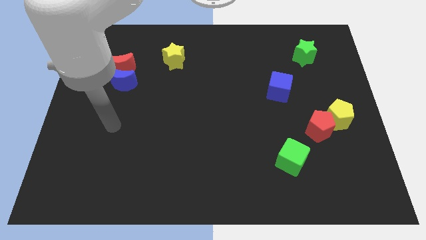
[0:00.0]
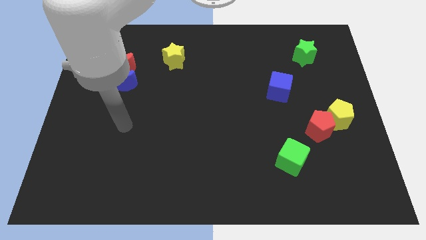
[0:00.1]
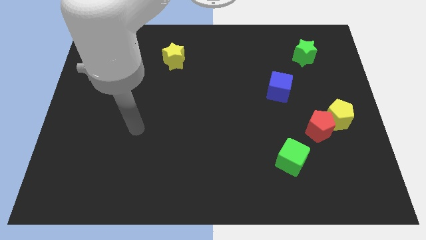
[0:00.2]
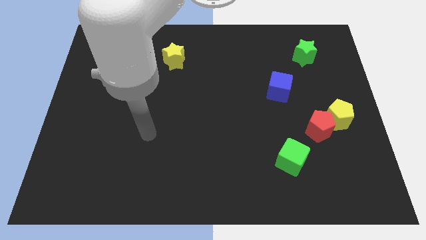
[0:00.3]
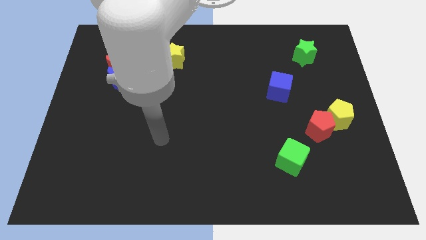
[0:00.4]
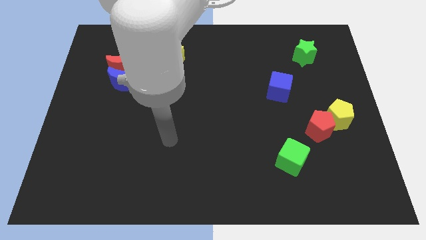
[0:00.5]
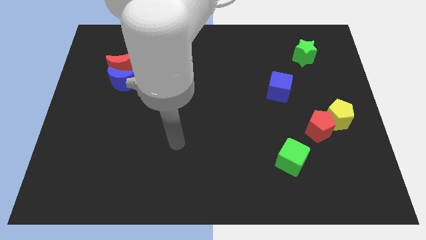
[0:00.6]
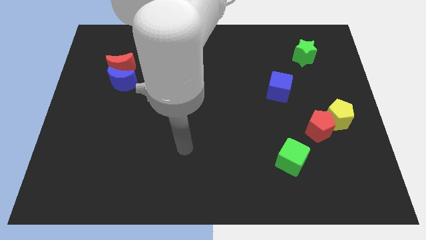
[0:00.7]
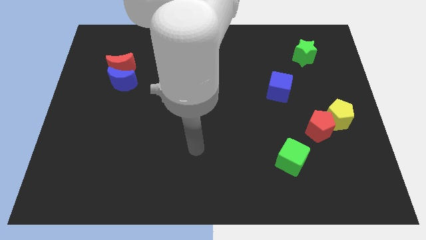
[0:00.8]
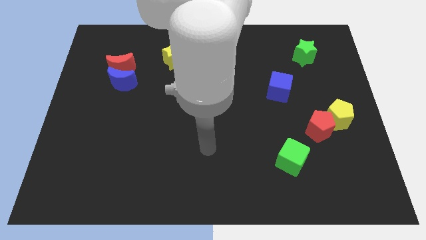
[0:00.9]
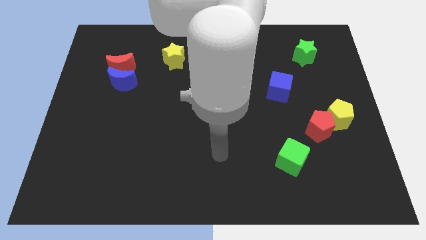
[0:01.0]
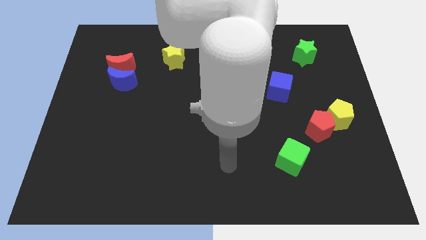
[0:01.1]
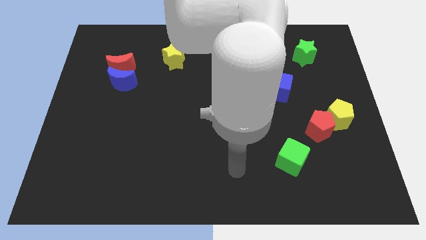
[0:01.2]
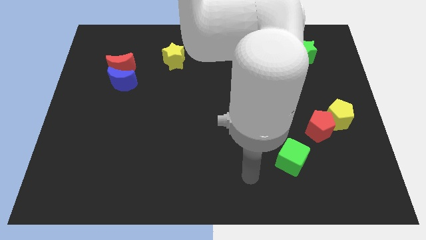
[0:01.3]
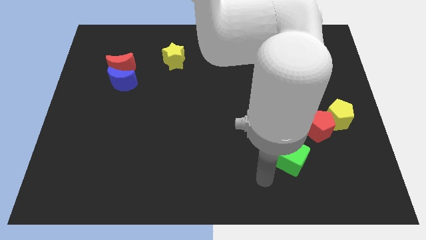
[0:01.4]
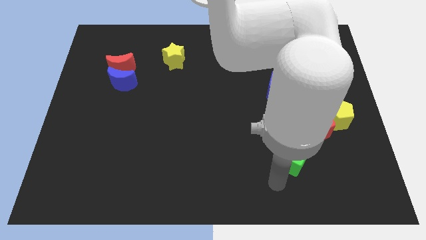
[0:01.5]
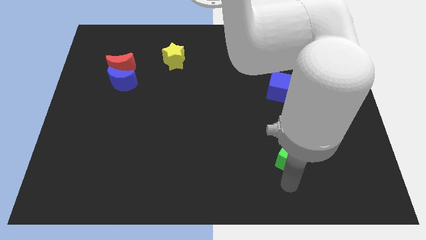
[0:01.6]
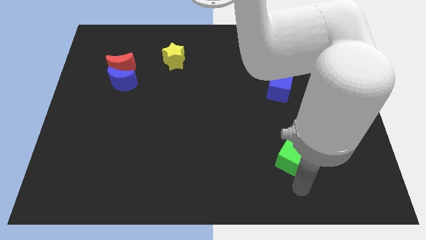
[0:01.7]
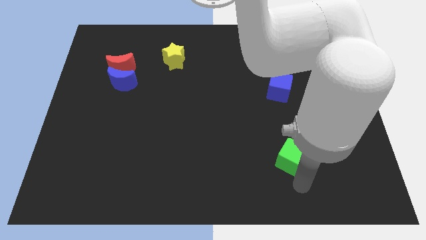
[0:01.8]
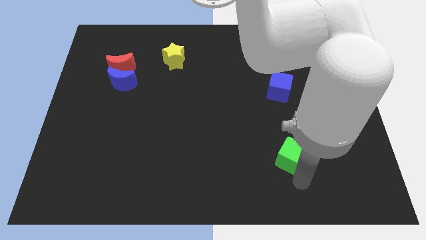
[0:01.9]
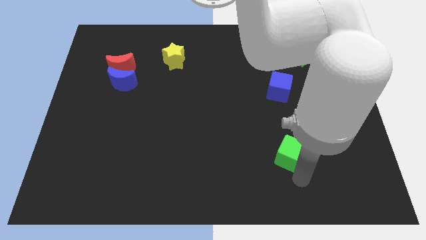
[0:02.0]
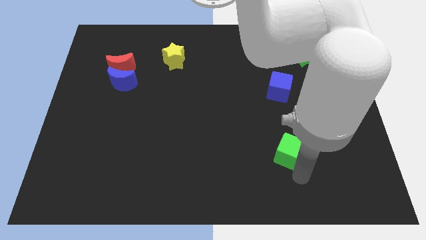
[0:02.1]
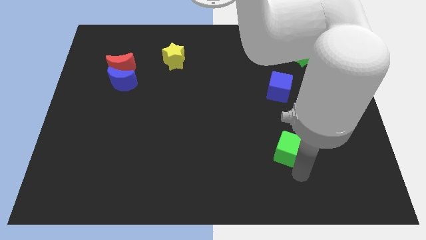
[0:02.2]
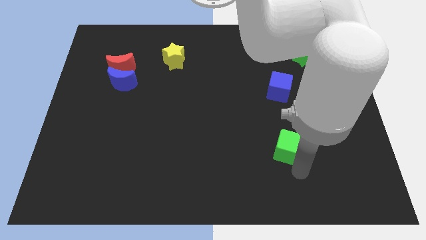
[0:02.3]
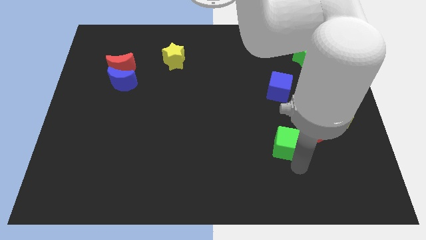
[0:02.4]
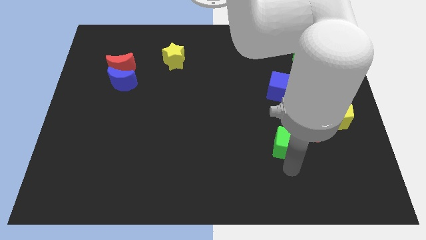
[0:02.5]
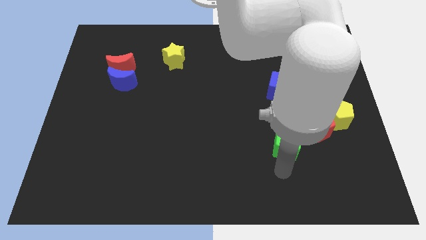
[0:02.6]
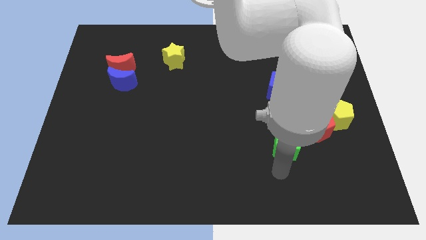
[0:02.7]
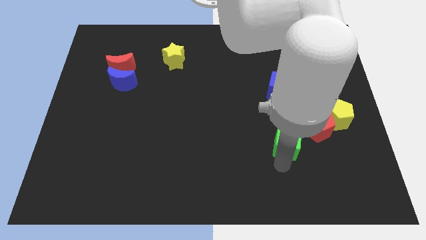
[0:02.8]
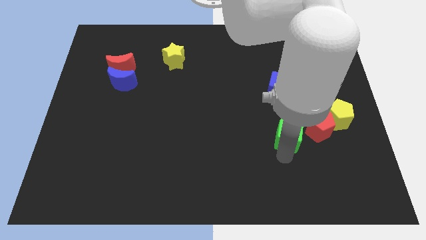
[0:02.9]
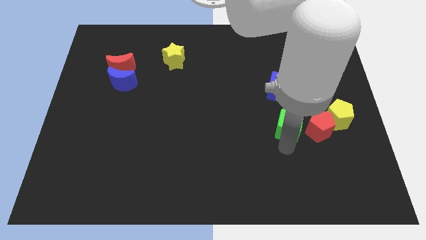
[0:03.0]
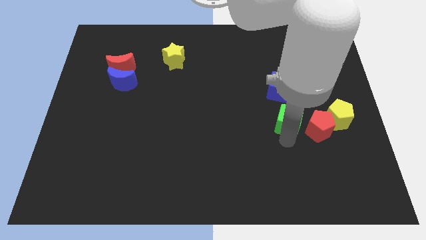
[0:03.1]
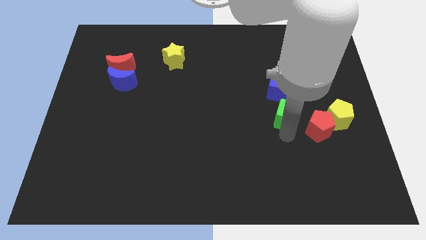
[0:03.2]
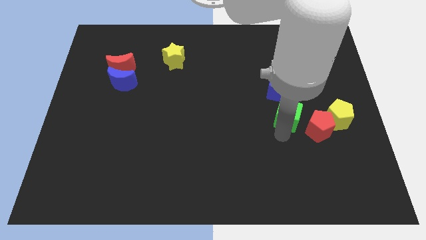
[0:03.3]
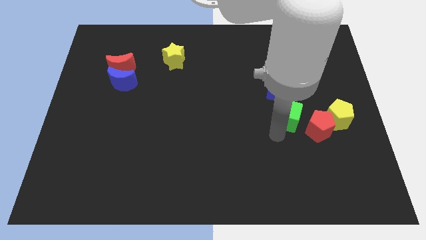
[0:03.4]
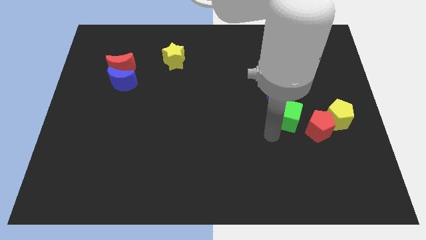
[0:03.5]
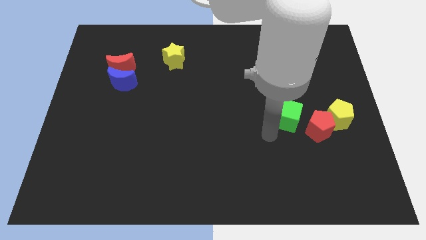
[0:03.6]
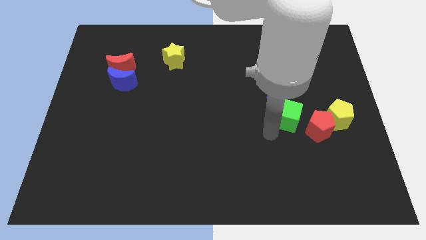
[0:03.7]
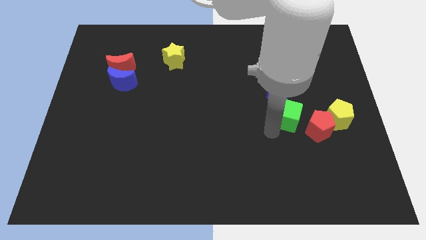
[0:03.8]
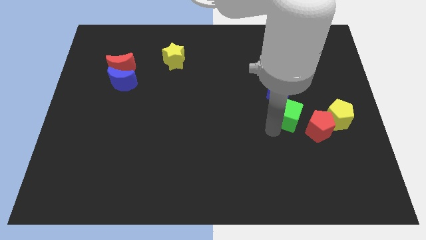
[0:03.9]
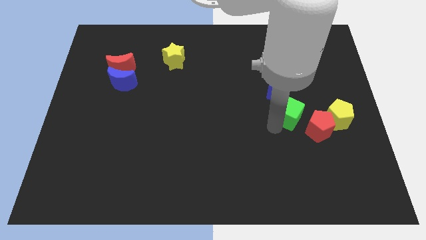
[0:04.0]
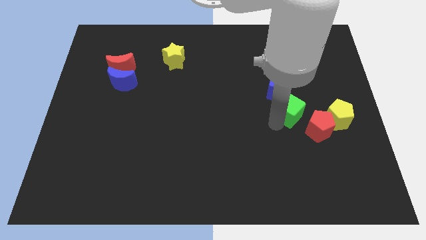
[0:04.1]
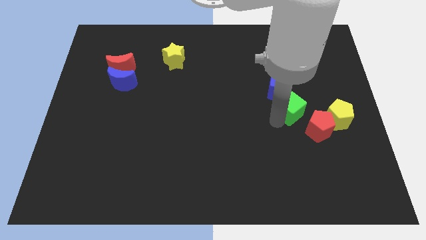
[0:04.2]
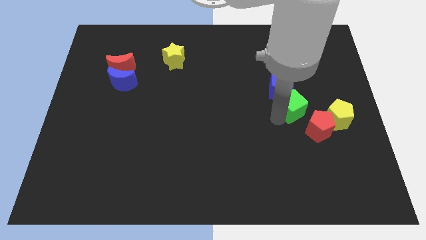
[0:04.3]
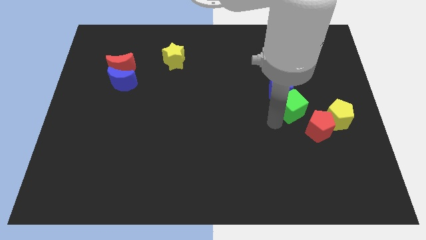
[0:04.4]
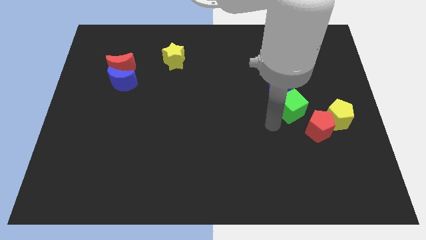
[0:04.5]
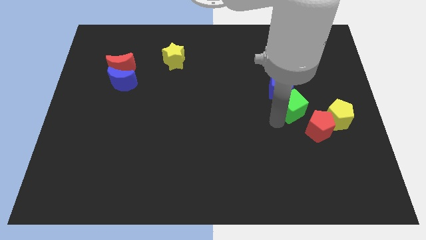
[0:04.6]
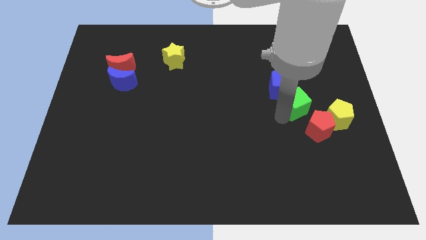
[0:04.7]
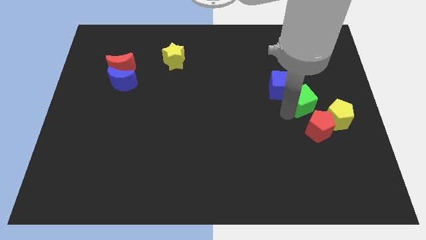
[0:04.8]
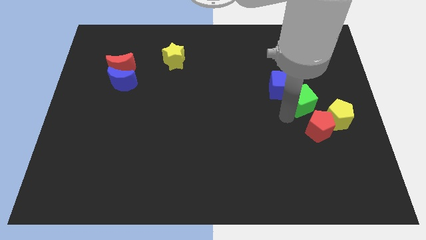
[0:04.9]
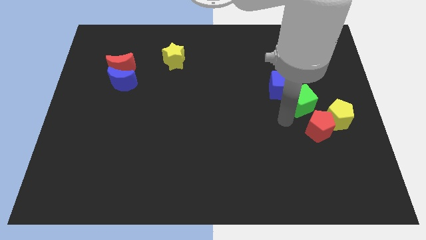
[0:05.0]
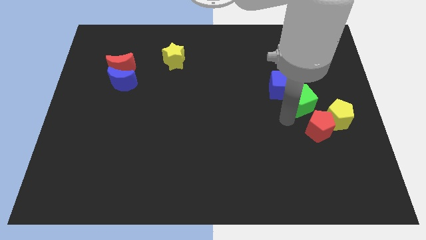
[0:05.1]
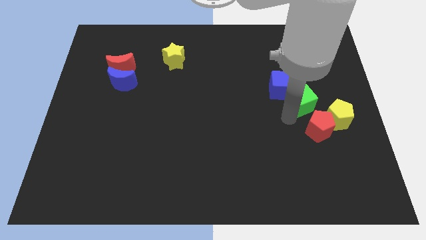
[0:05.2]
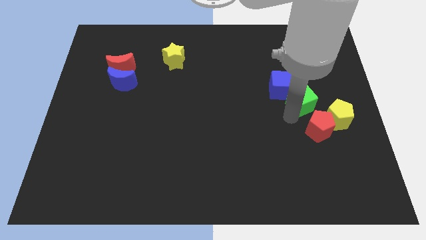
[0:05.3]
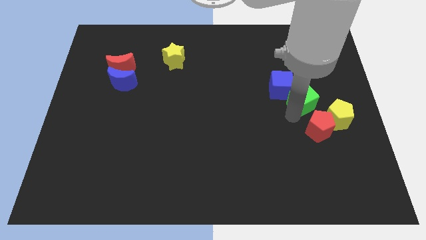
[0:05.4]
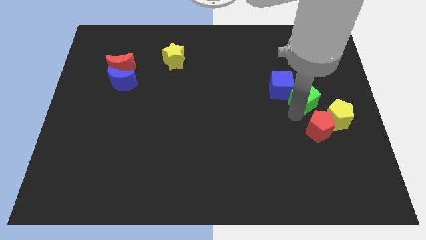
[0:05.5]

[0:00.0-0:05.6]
slide the green cube to the bottom of the green star

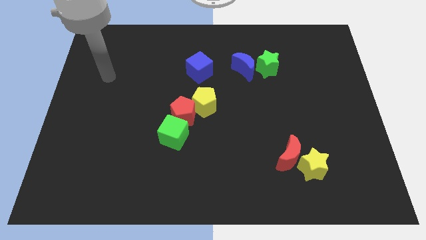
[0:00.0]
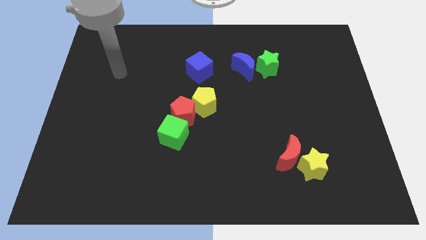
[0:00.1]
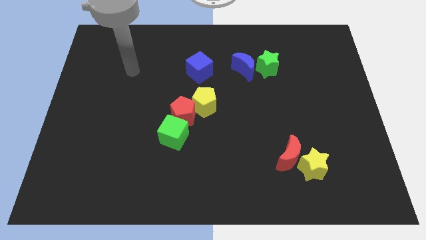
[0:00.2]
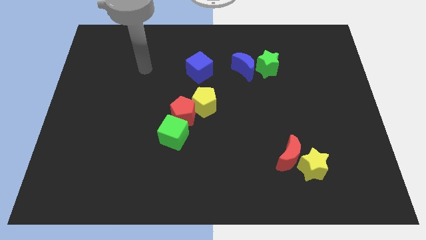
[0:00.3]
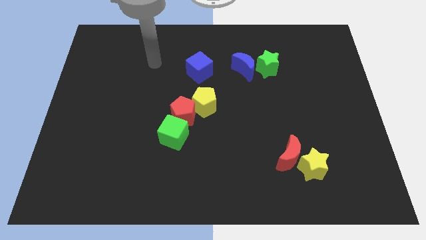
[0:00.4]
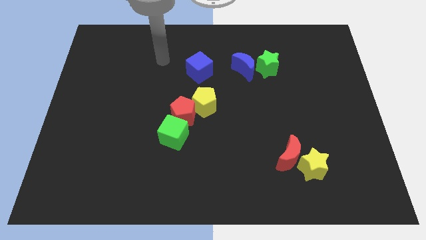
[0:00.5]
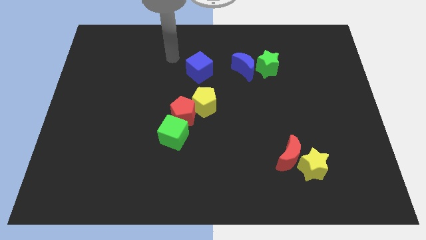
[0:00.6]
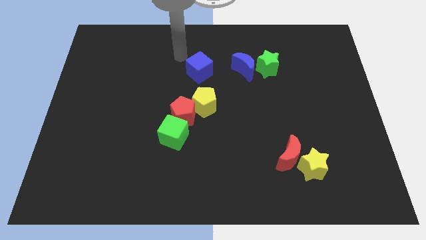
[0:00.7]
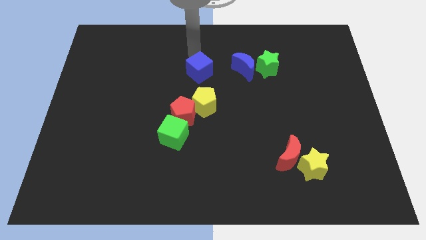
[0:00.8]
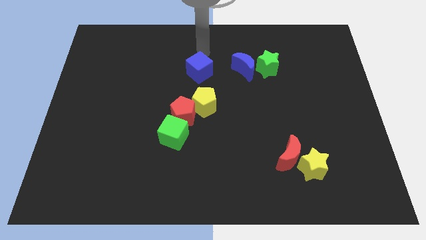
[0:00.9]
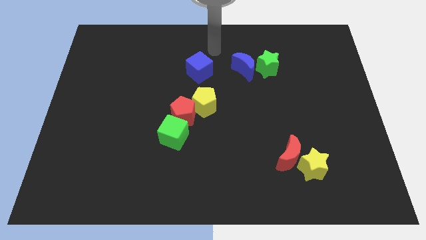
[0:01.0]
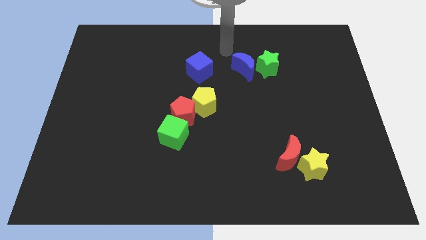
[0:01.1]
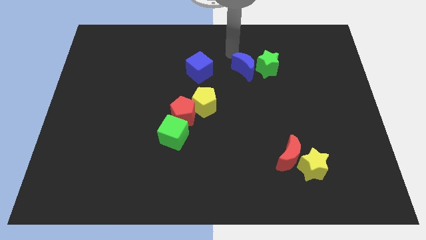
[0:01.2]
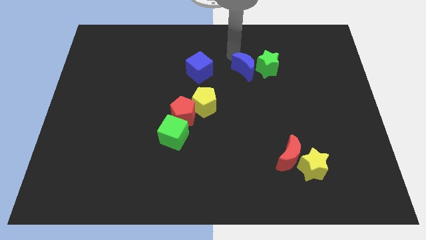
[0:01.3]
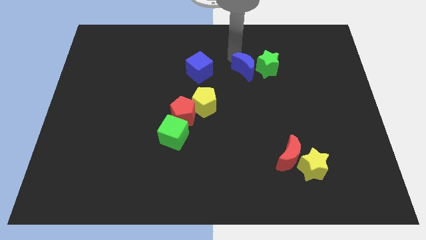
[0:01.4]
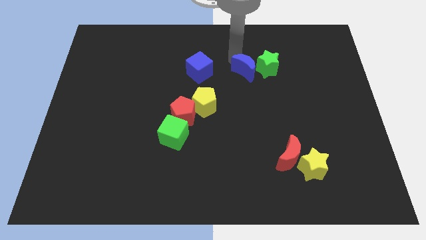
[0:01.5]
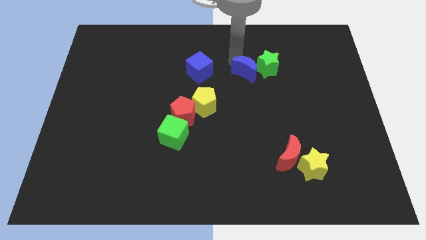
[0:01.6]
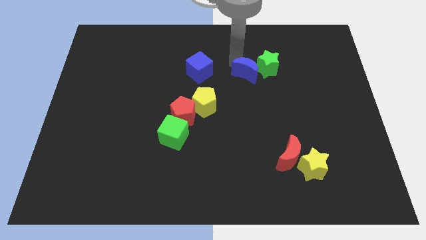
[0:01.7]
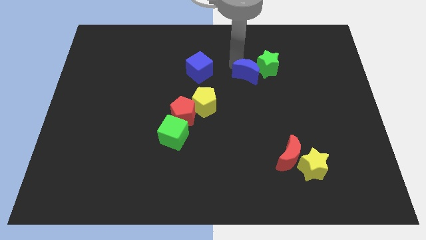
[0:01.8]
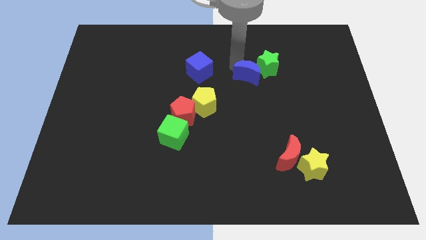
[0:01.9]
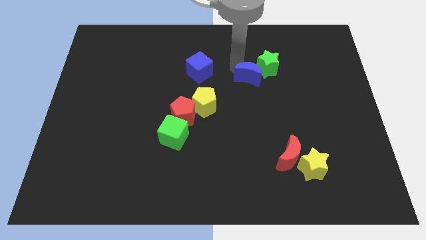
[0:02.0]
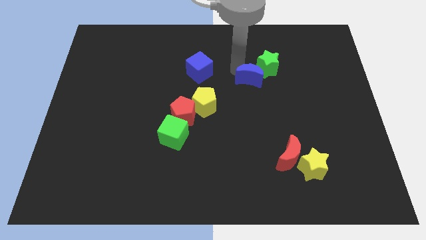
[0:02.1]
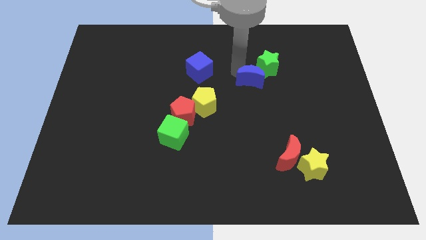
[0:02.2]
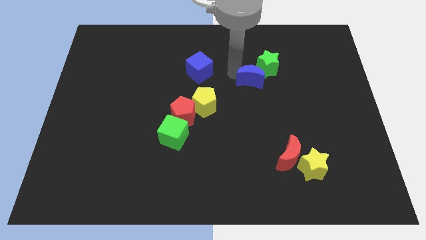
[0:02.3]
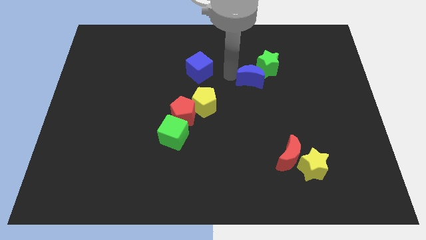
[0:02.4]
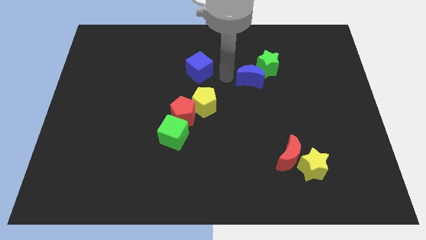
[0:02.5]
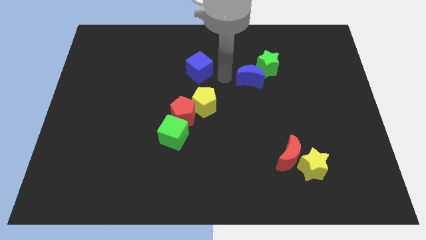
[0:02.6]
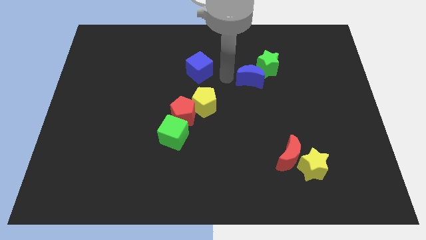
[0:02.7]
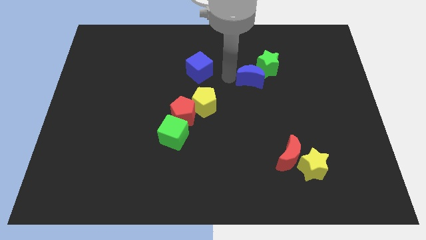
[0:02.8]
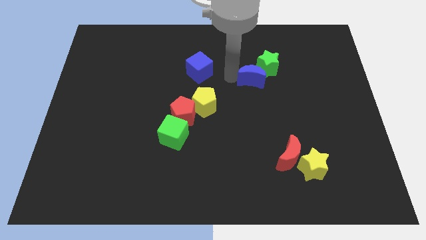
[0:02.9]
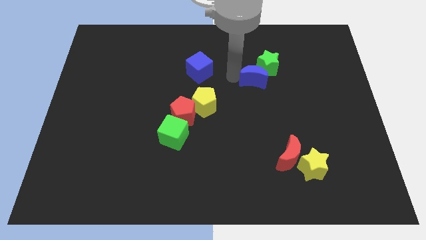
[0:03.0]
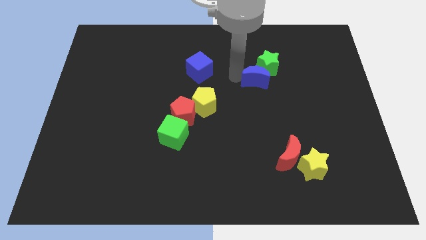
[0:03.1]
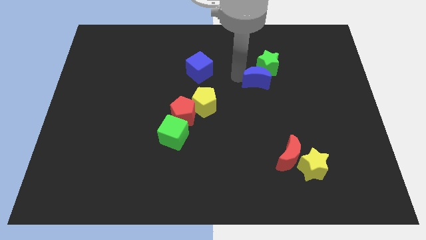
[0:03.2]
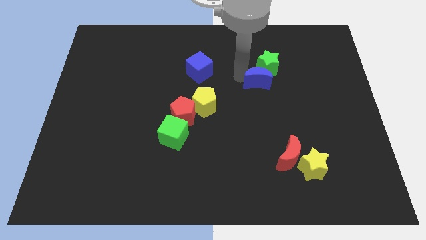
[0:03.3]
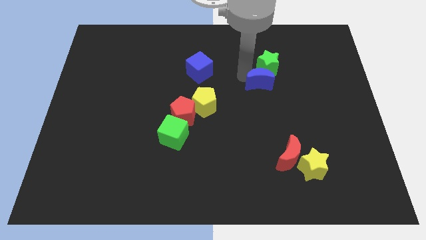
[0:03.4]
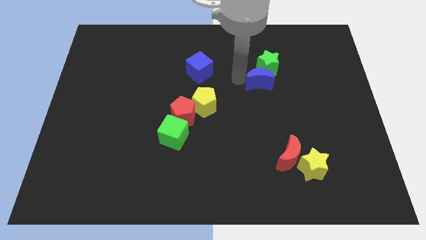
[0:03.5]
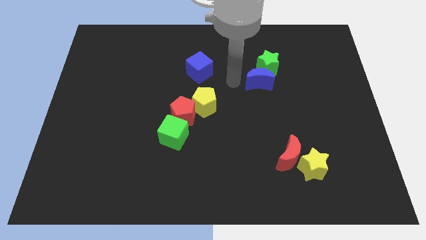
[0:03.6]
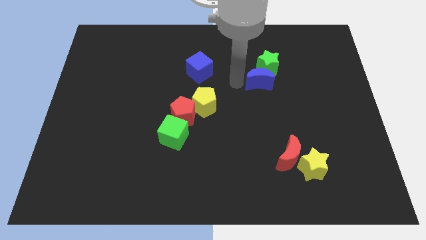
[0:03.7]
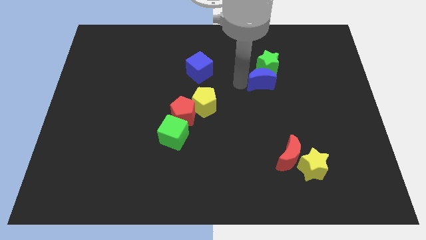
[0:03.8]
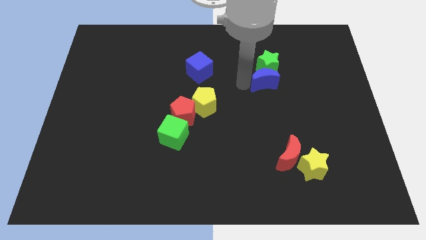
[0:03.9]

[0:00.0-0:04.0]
put the blue moon diagonally down and to the right of the green star
